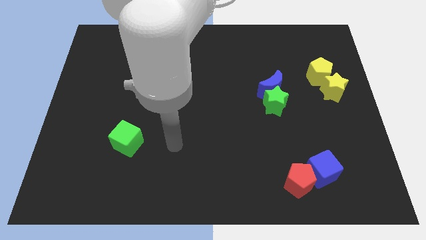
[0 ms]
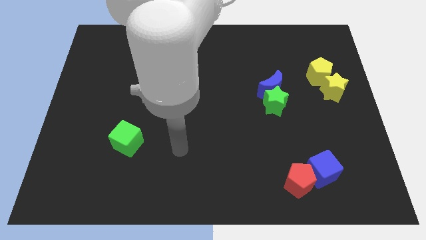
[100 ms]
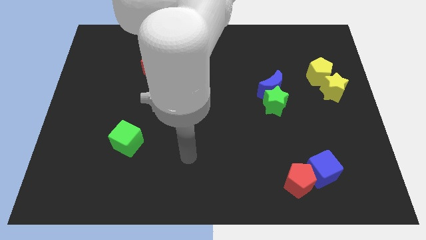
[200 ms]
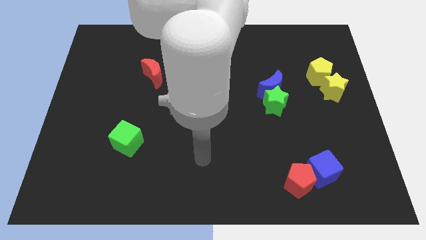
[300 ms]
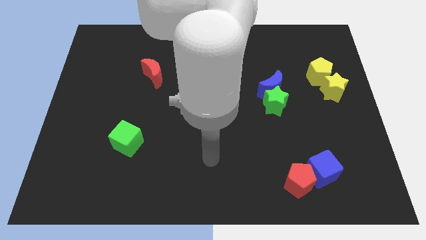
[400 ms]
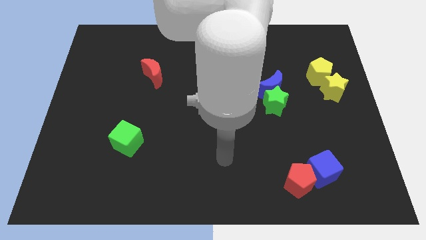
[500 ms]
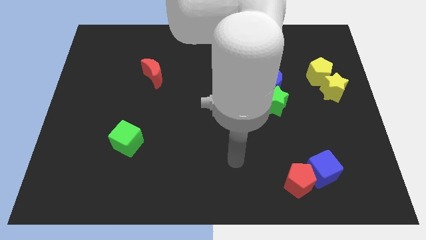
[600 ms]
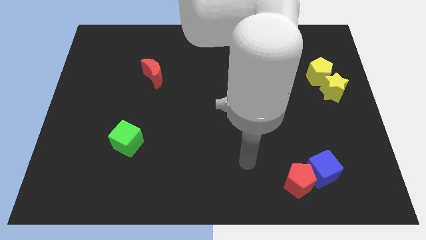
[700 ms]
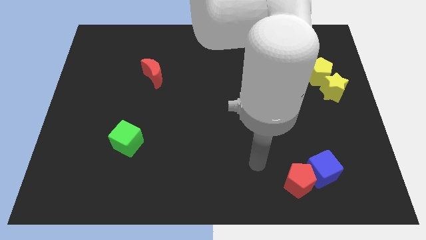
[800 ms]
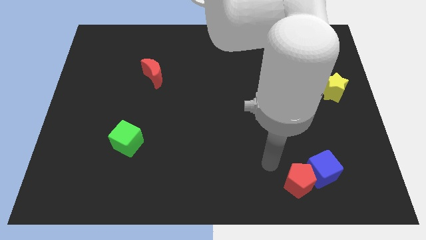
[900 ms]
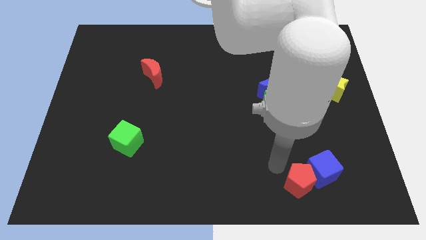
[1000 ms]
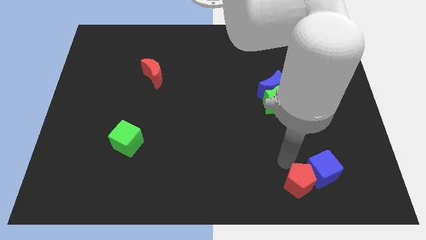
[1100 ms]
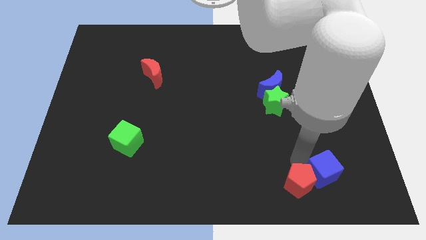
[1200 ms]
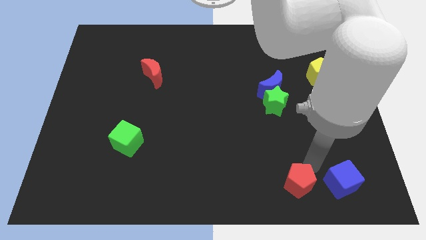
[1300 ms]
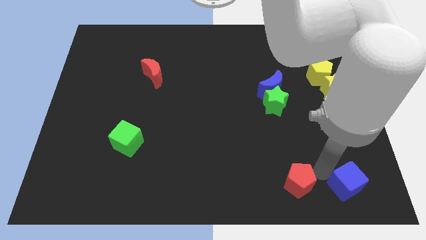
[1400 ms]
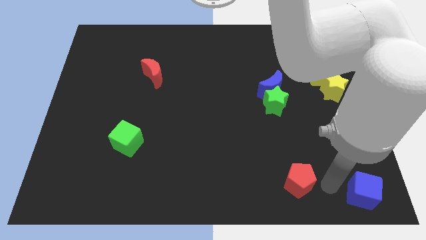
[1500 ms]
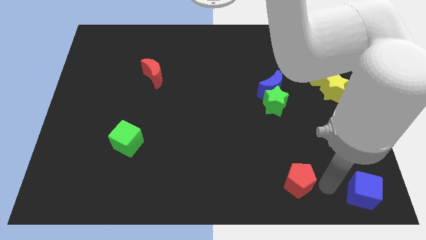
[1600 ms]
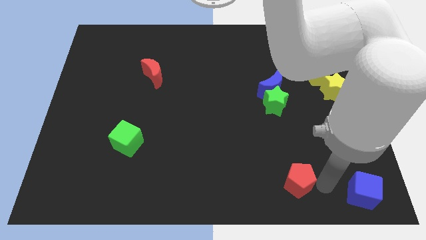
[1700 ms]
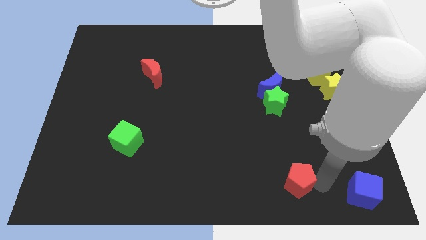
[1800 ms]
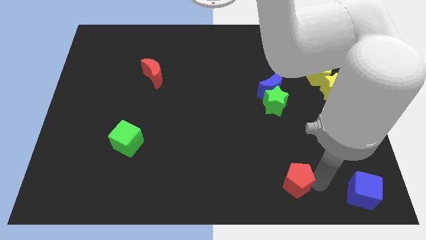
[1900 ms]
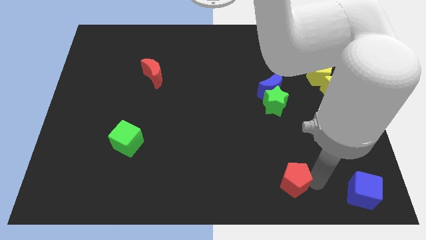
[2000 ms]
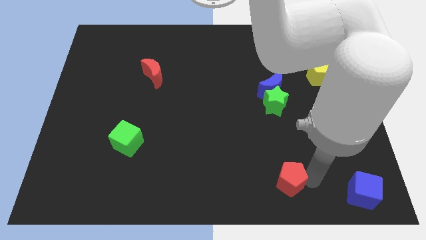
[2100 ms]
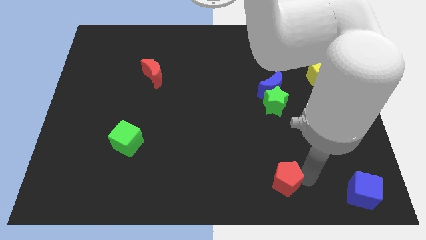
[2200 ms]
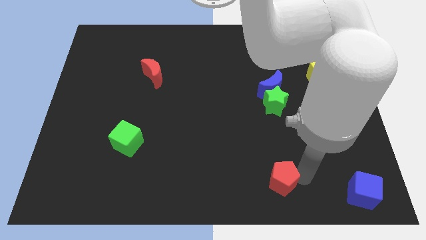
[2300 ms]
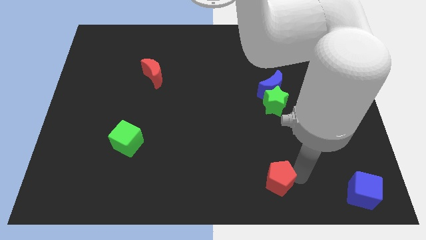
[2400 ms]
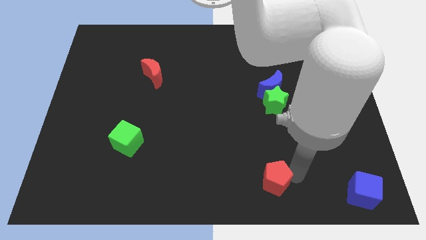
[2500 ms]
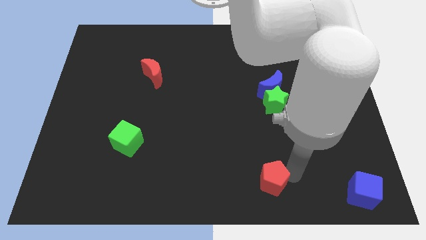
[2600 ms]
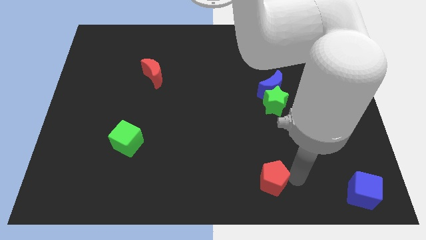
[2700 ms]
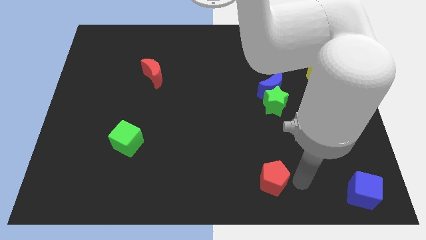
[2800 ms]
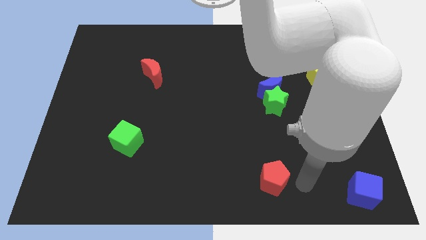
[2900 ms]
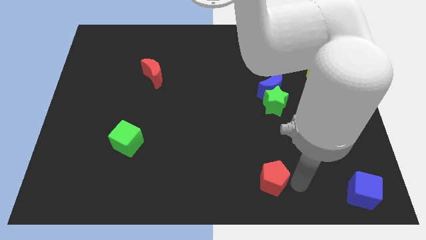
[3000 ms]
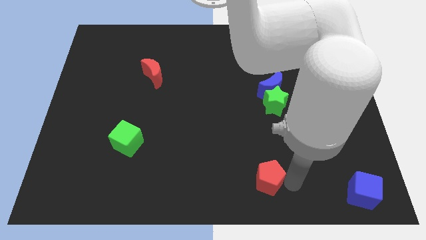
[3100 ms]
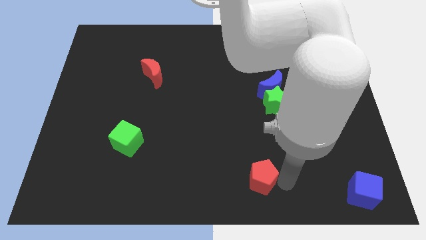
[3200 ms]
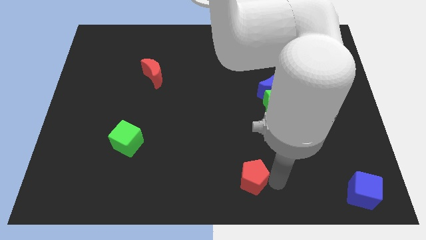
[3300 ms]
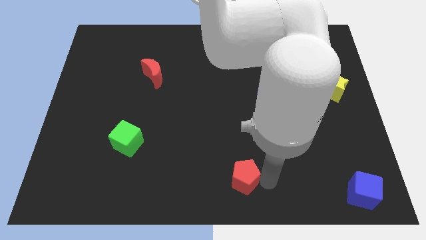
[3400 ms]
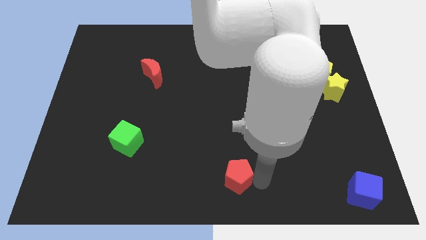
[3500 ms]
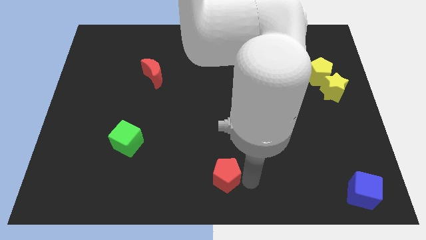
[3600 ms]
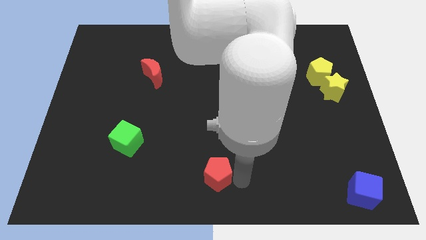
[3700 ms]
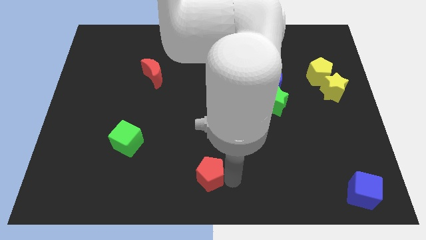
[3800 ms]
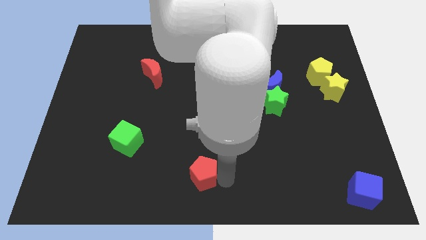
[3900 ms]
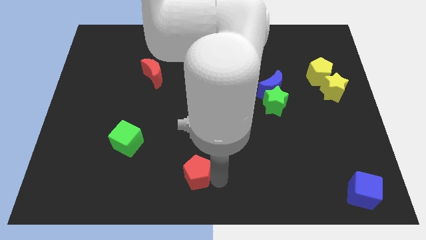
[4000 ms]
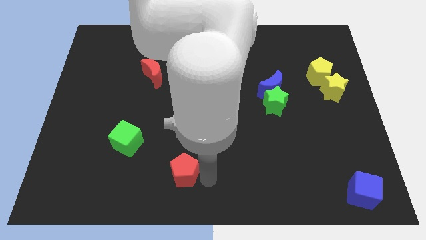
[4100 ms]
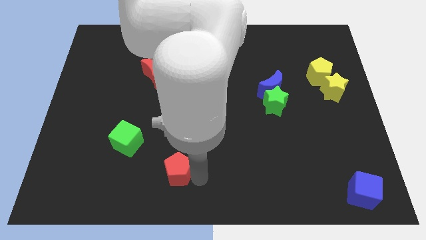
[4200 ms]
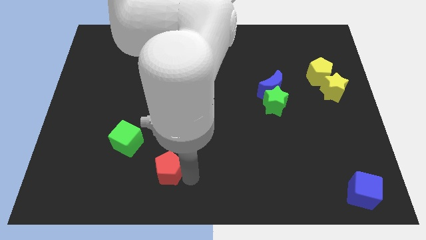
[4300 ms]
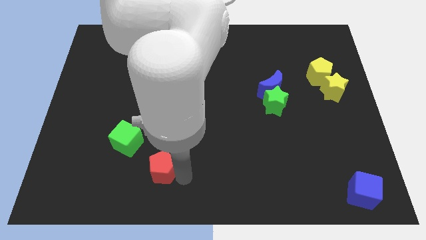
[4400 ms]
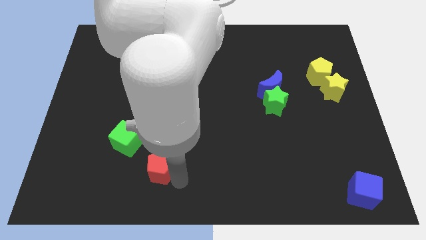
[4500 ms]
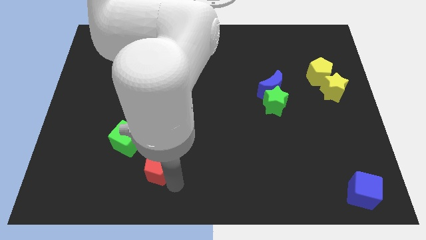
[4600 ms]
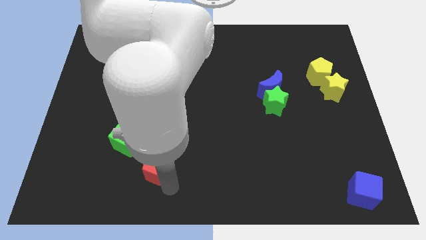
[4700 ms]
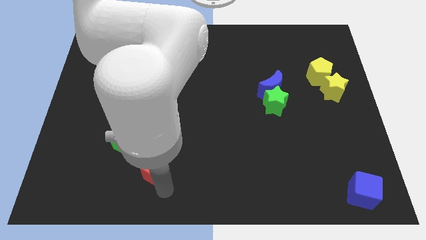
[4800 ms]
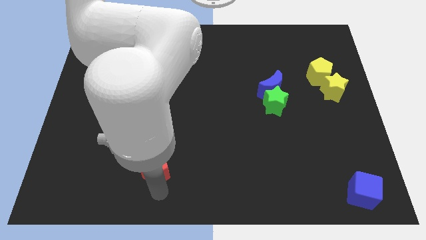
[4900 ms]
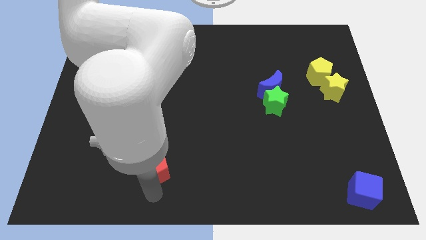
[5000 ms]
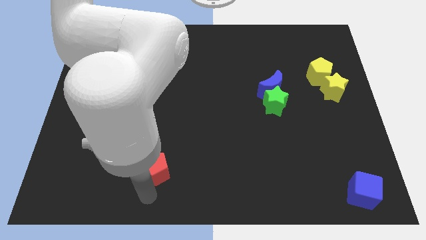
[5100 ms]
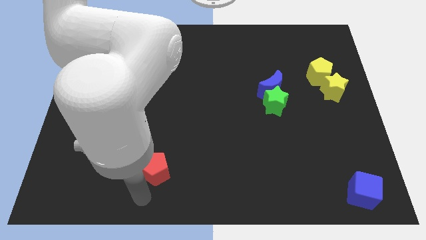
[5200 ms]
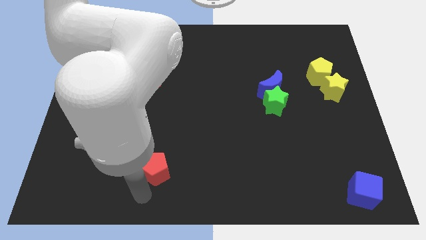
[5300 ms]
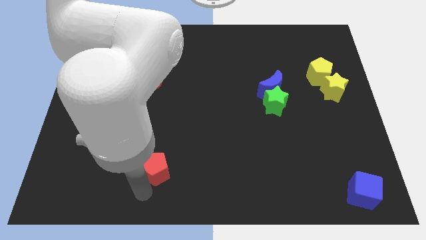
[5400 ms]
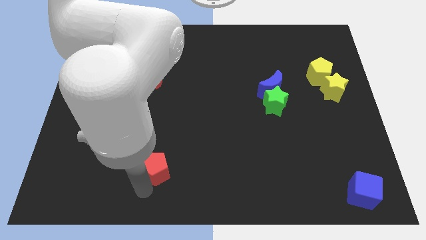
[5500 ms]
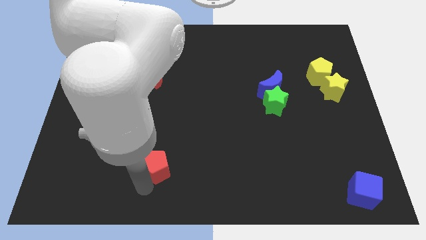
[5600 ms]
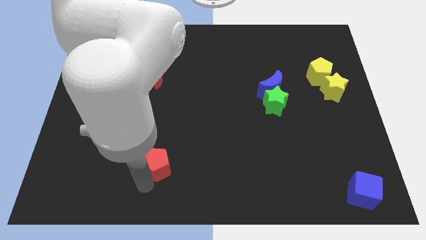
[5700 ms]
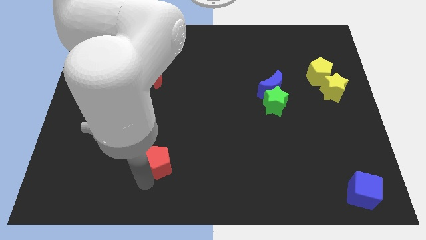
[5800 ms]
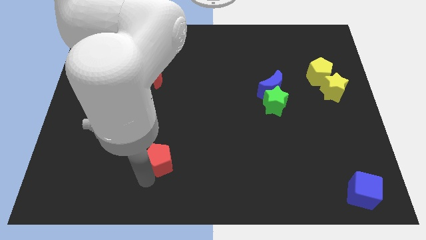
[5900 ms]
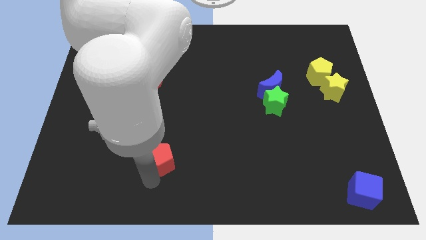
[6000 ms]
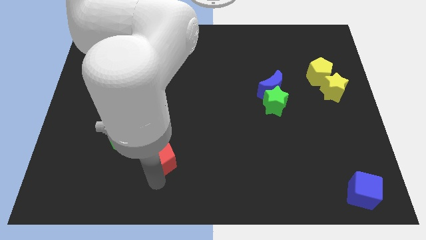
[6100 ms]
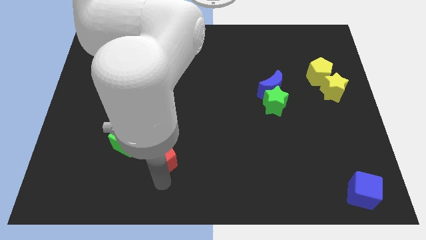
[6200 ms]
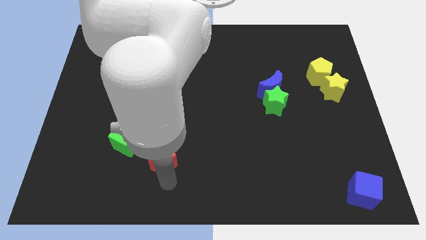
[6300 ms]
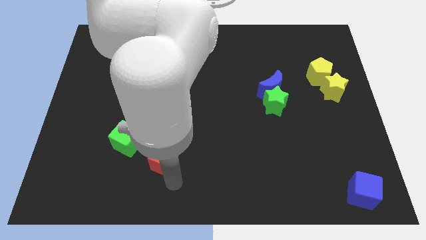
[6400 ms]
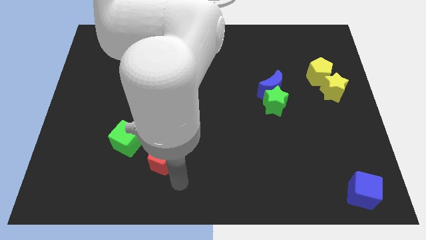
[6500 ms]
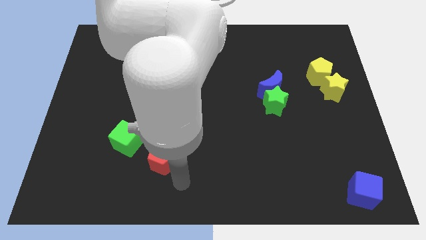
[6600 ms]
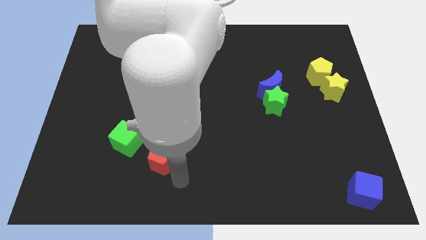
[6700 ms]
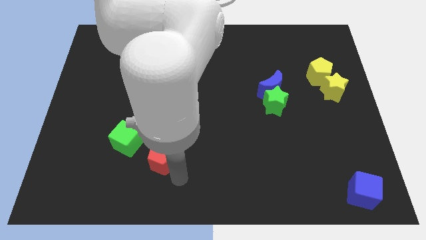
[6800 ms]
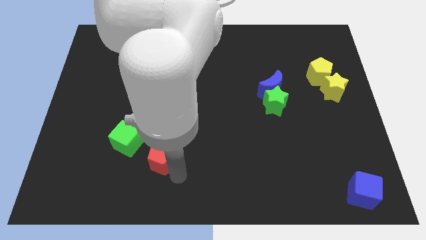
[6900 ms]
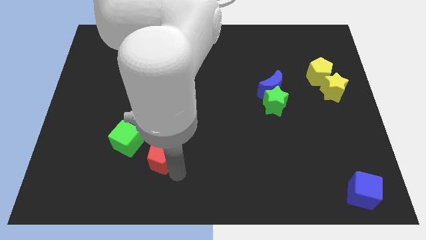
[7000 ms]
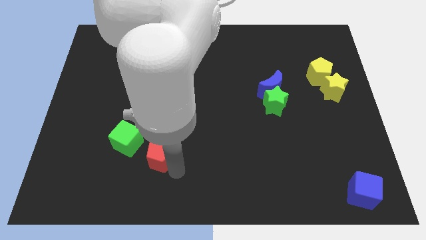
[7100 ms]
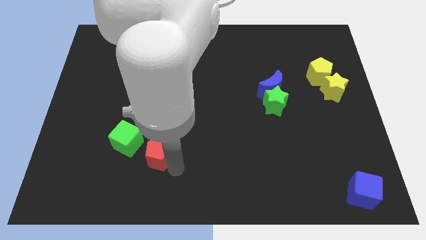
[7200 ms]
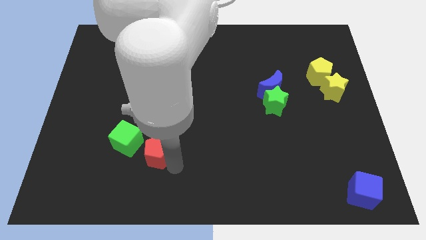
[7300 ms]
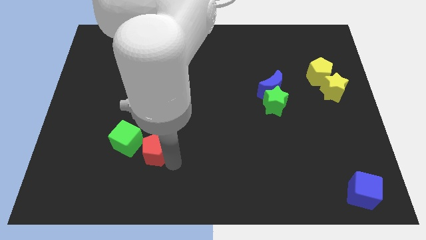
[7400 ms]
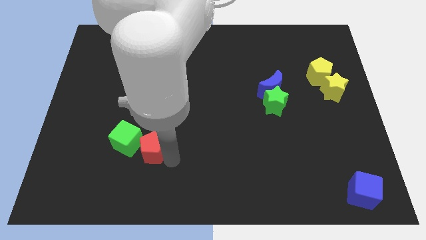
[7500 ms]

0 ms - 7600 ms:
slide the red pentagon close to the green cube
